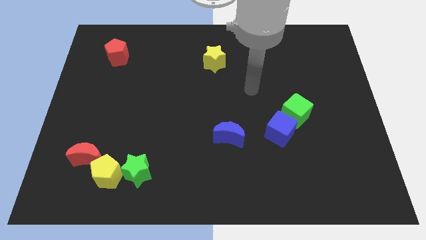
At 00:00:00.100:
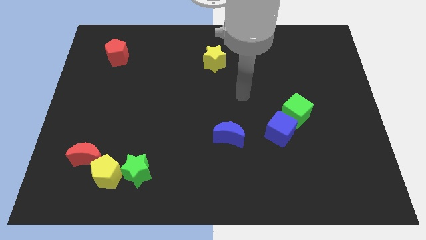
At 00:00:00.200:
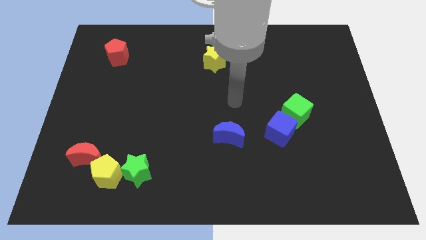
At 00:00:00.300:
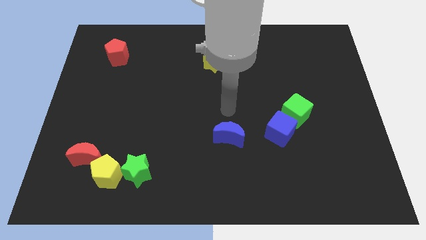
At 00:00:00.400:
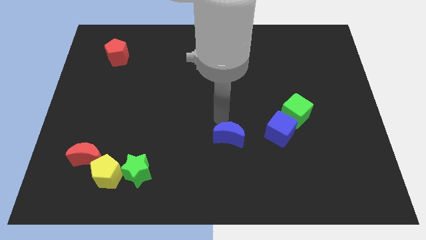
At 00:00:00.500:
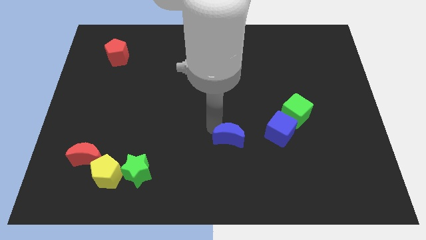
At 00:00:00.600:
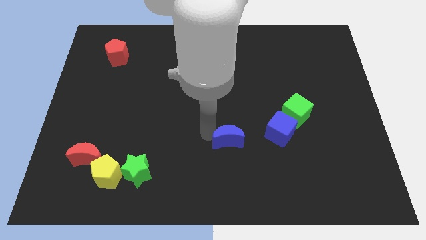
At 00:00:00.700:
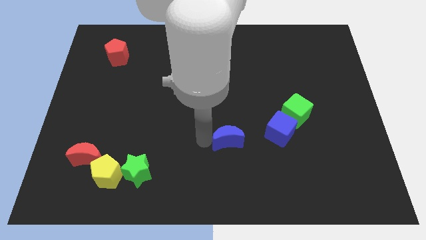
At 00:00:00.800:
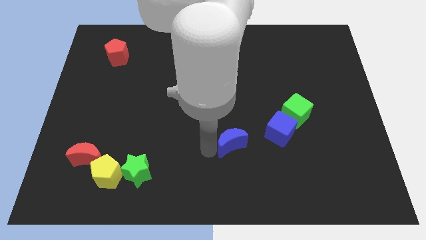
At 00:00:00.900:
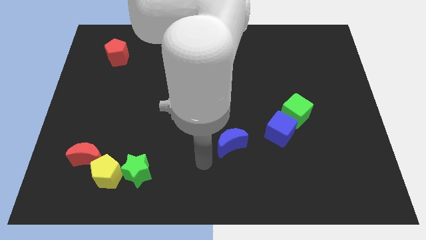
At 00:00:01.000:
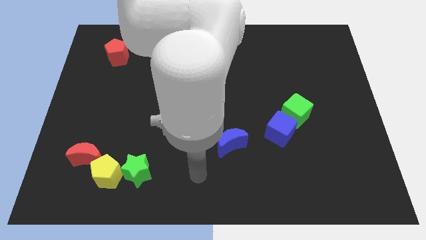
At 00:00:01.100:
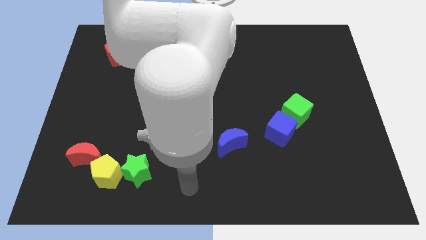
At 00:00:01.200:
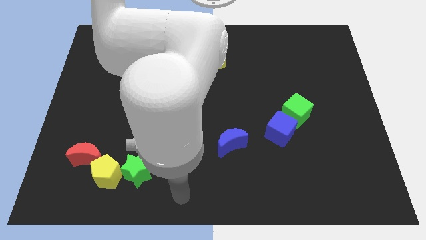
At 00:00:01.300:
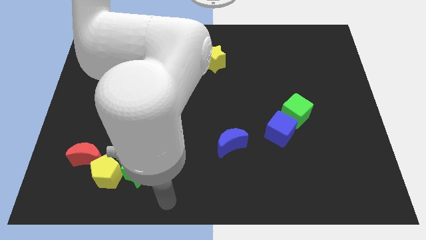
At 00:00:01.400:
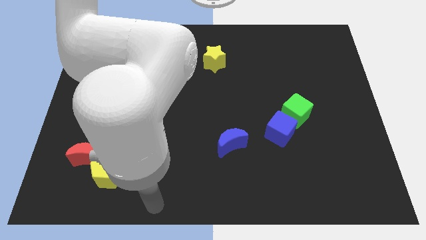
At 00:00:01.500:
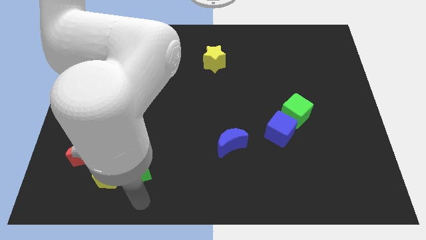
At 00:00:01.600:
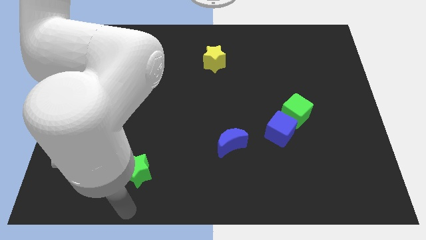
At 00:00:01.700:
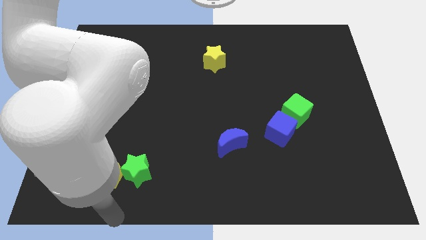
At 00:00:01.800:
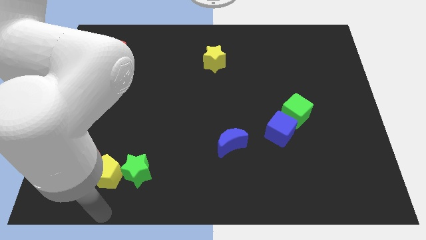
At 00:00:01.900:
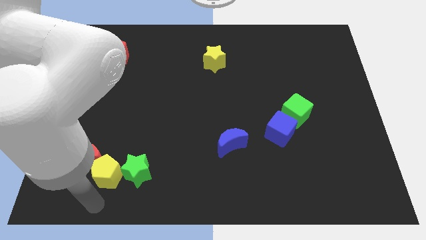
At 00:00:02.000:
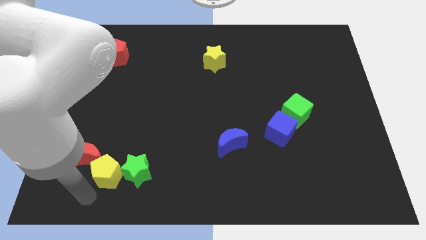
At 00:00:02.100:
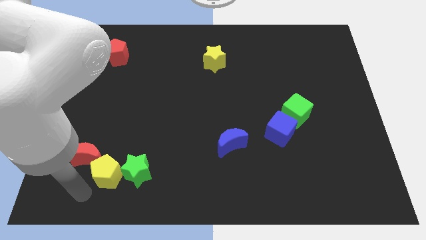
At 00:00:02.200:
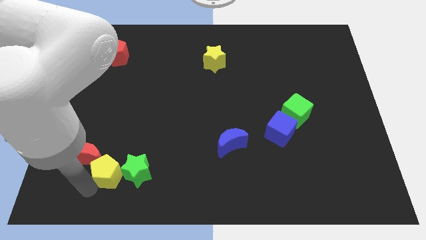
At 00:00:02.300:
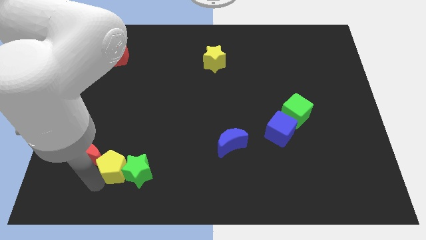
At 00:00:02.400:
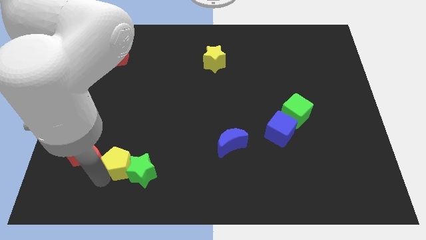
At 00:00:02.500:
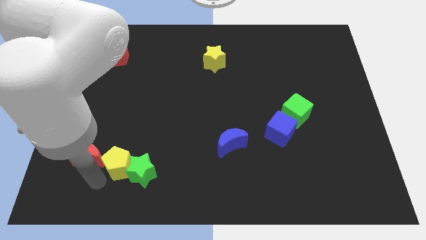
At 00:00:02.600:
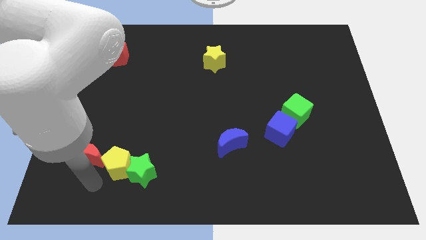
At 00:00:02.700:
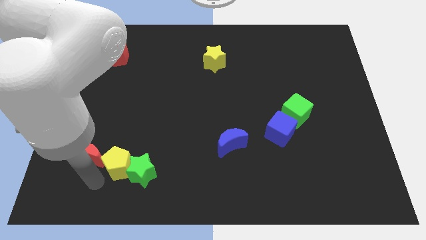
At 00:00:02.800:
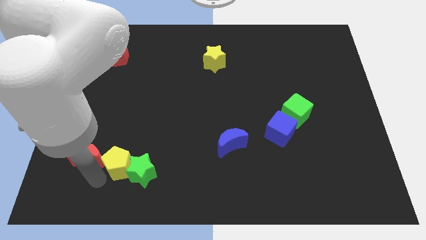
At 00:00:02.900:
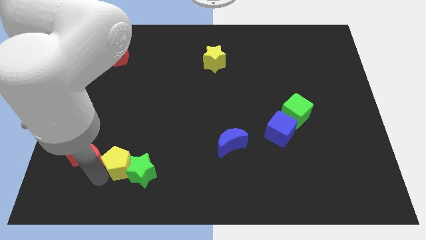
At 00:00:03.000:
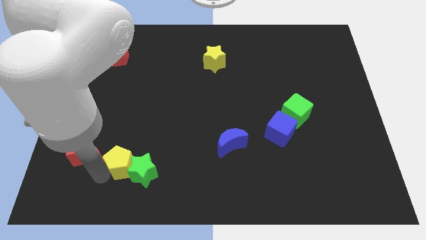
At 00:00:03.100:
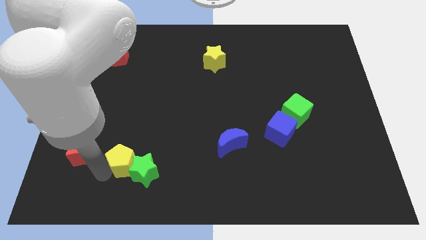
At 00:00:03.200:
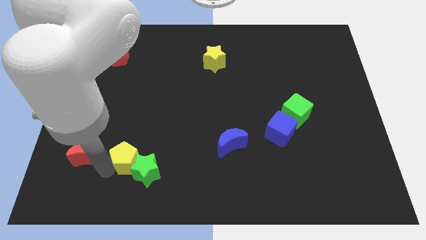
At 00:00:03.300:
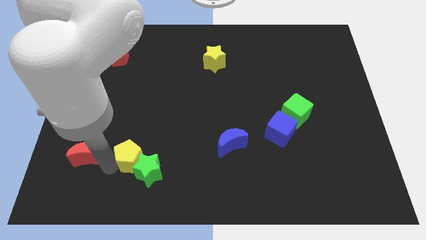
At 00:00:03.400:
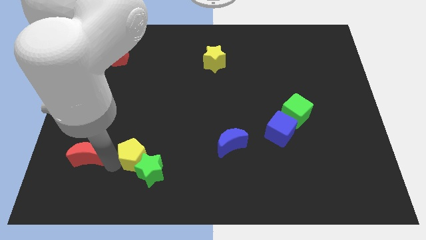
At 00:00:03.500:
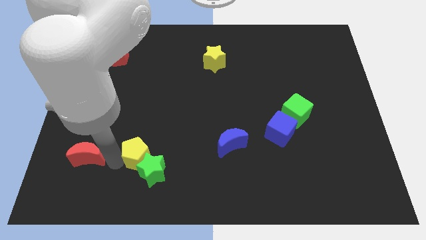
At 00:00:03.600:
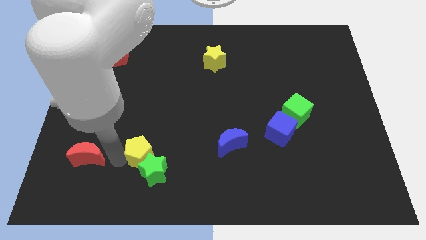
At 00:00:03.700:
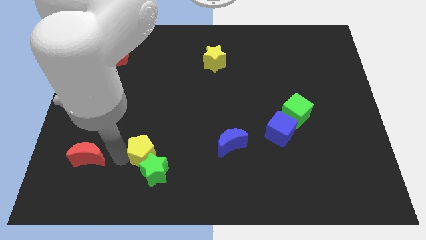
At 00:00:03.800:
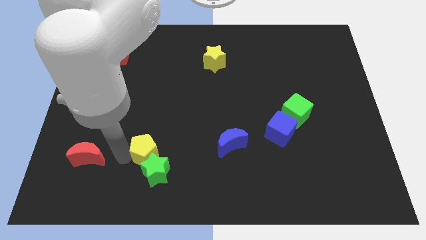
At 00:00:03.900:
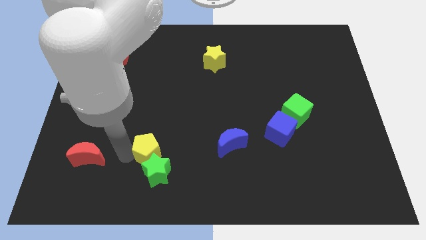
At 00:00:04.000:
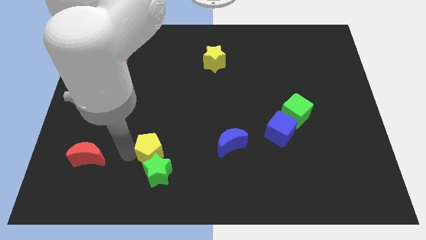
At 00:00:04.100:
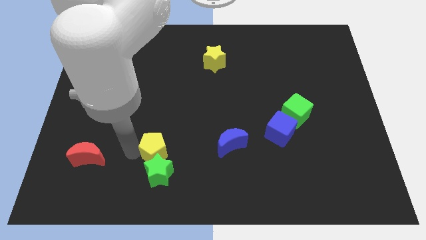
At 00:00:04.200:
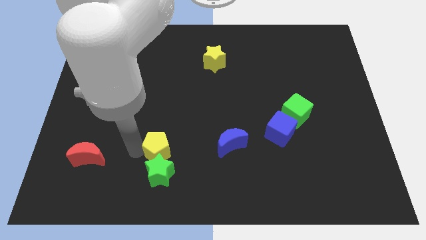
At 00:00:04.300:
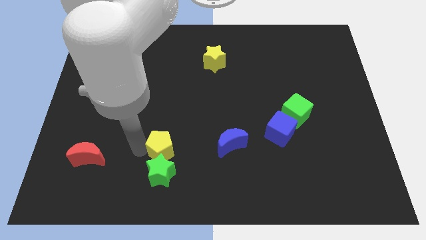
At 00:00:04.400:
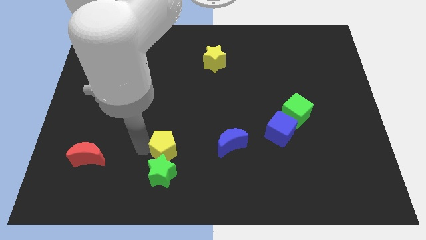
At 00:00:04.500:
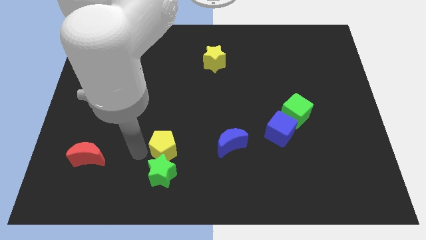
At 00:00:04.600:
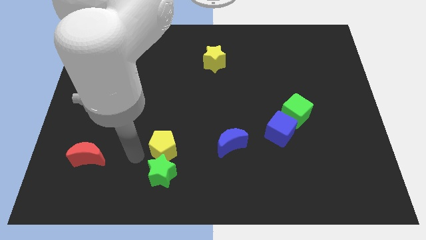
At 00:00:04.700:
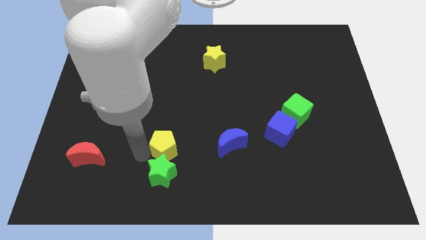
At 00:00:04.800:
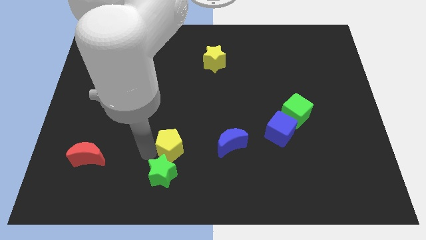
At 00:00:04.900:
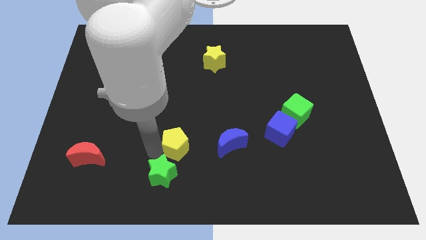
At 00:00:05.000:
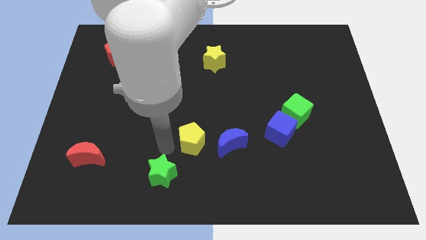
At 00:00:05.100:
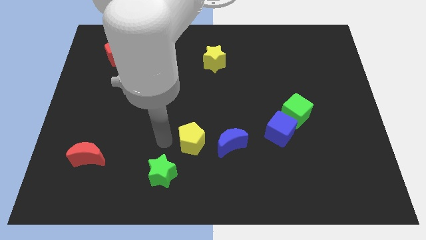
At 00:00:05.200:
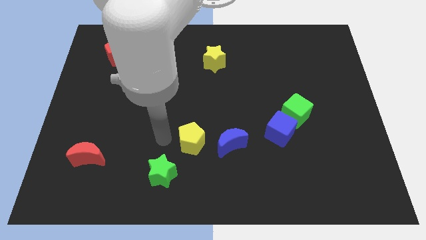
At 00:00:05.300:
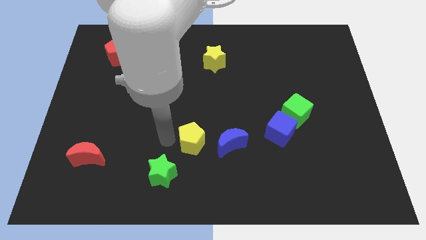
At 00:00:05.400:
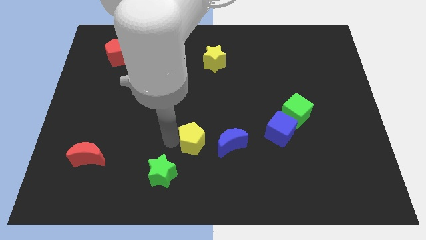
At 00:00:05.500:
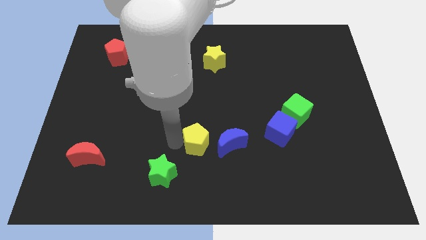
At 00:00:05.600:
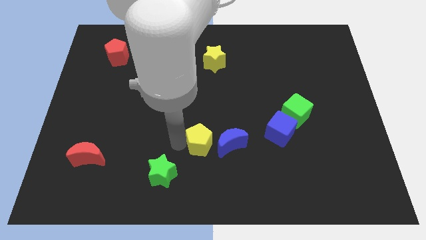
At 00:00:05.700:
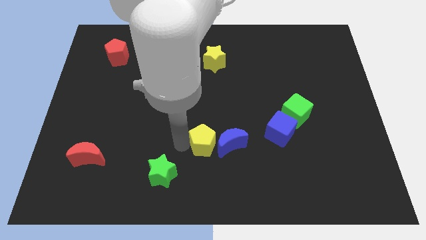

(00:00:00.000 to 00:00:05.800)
move the yellow pentagon next to the blue moon

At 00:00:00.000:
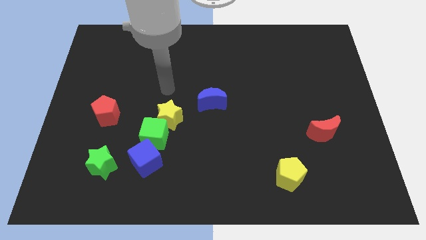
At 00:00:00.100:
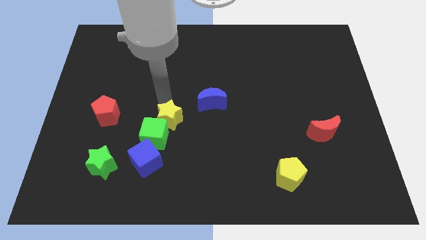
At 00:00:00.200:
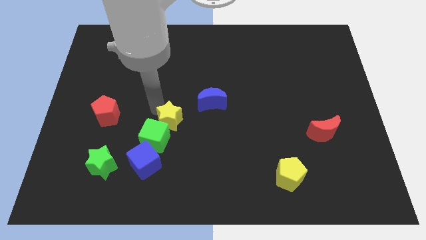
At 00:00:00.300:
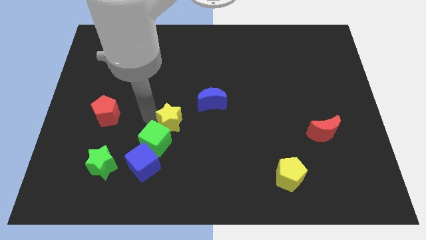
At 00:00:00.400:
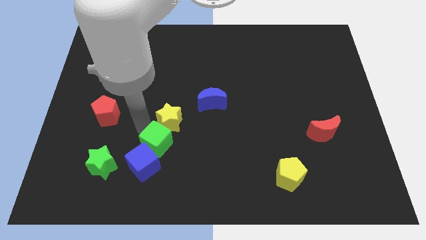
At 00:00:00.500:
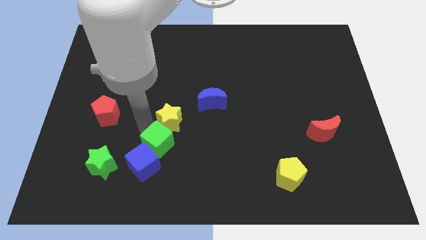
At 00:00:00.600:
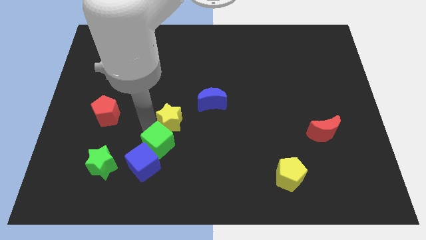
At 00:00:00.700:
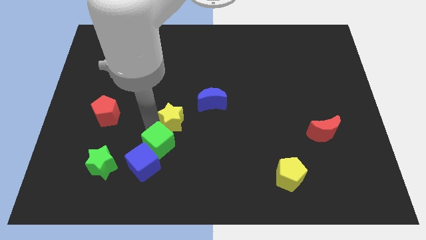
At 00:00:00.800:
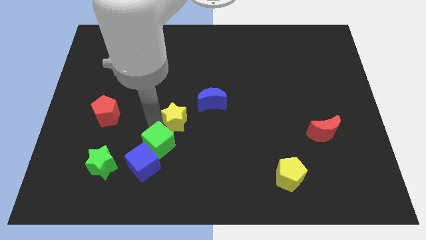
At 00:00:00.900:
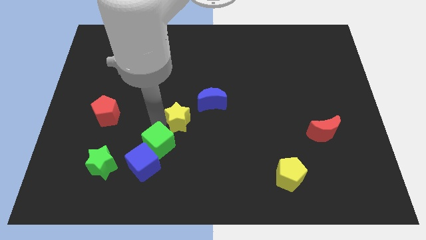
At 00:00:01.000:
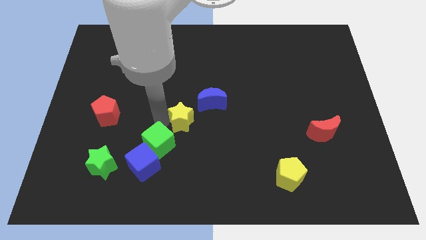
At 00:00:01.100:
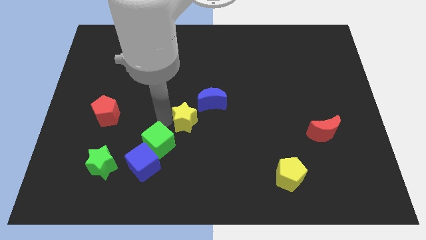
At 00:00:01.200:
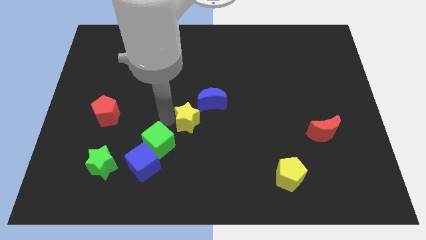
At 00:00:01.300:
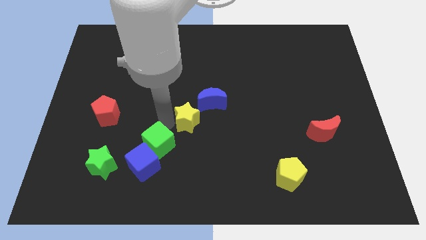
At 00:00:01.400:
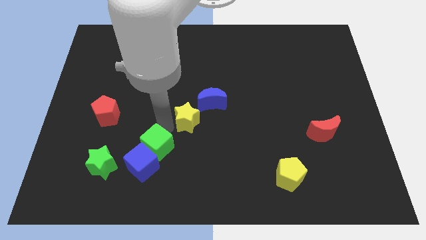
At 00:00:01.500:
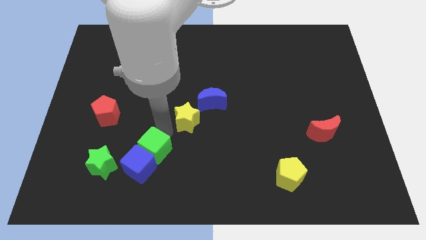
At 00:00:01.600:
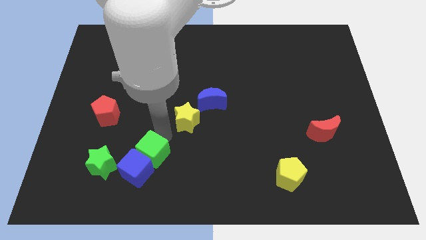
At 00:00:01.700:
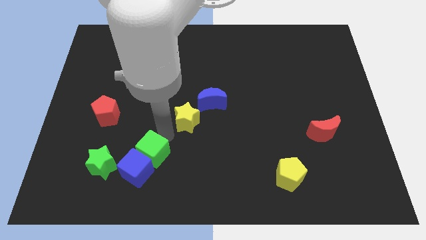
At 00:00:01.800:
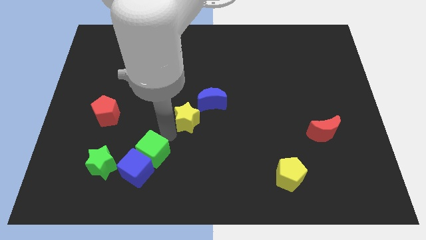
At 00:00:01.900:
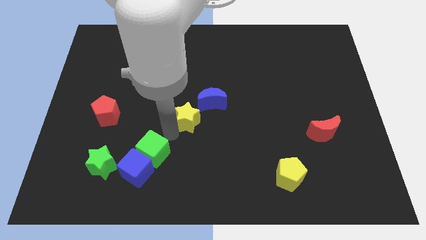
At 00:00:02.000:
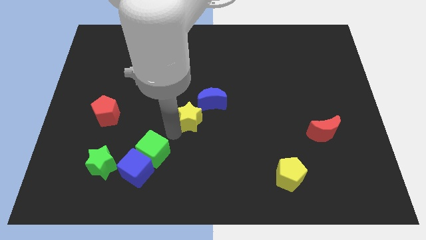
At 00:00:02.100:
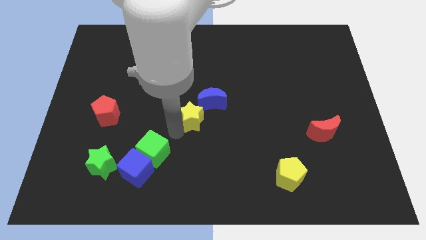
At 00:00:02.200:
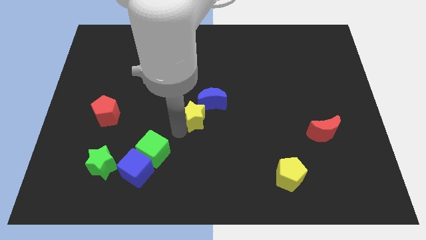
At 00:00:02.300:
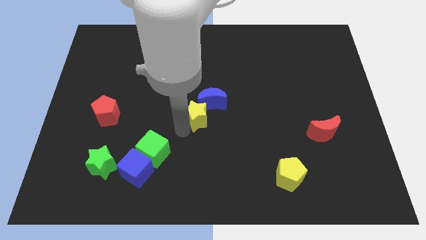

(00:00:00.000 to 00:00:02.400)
push the yellow star next to the blue moon
